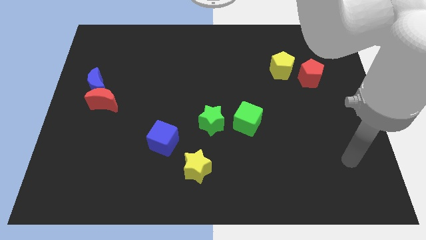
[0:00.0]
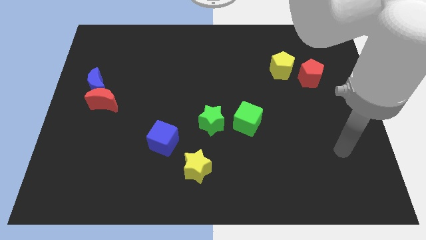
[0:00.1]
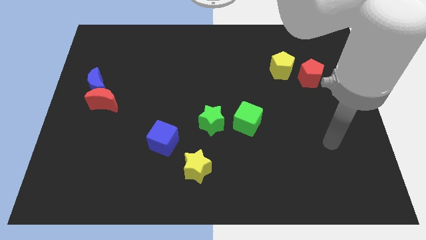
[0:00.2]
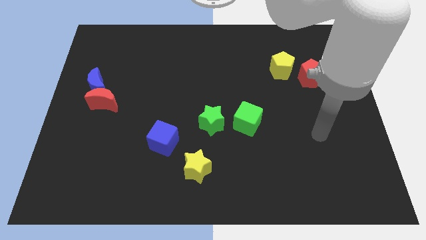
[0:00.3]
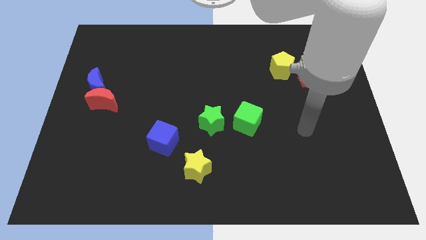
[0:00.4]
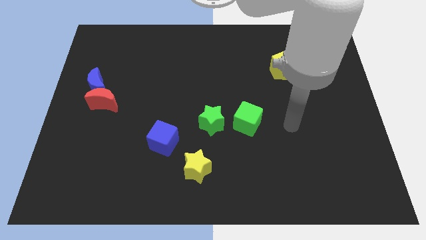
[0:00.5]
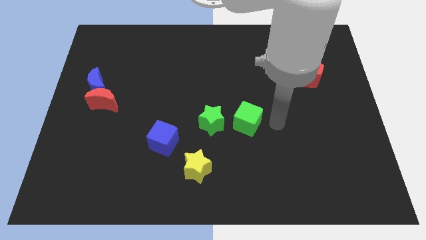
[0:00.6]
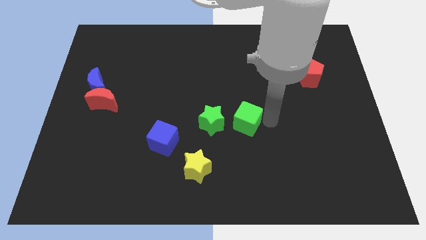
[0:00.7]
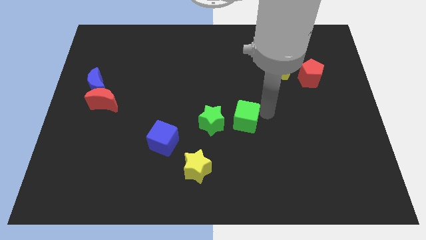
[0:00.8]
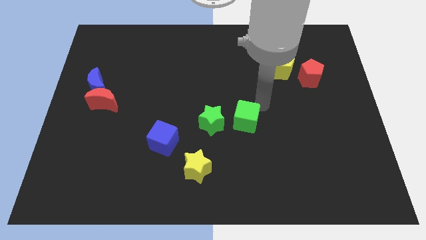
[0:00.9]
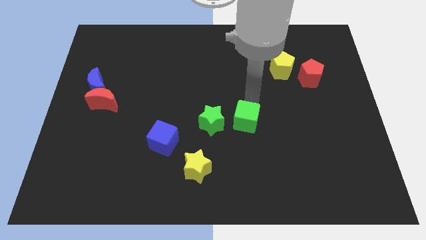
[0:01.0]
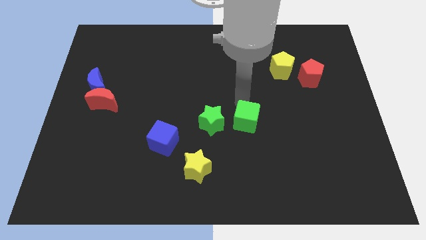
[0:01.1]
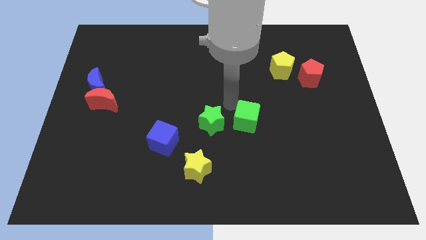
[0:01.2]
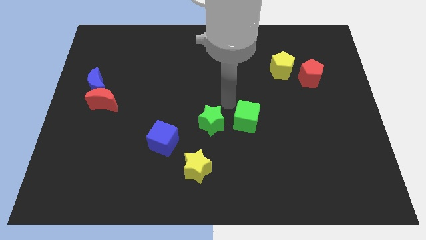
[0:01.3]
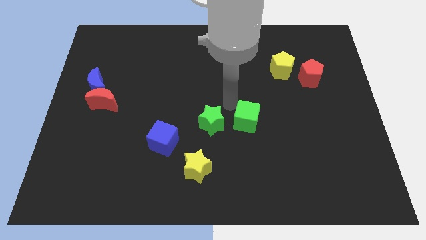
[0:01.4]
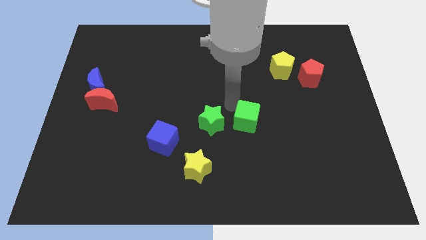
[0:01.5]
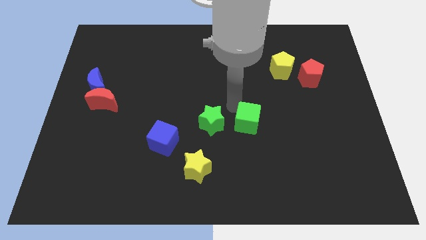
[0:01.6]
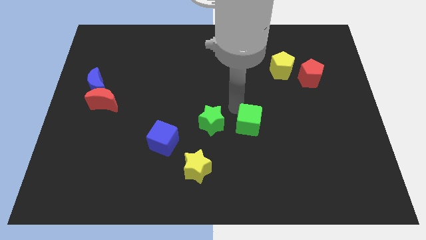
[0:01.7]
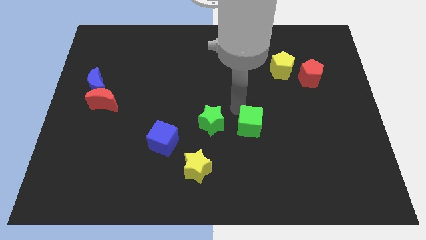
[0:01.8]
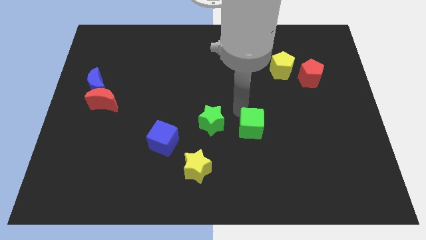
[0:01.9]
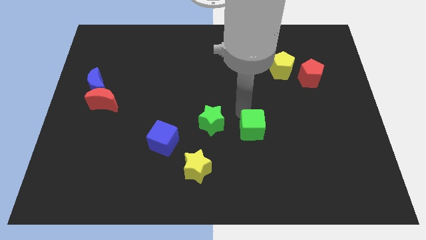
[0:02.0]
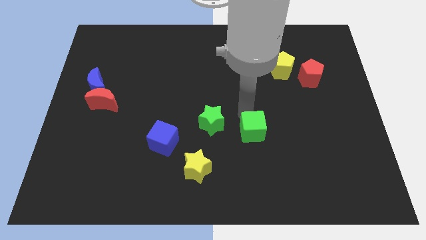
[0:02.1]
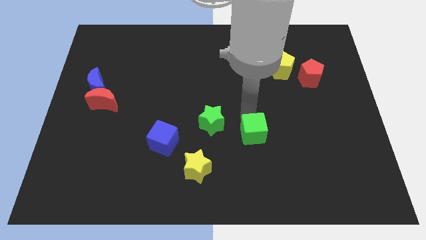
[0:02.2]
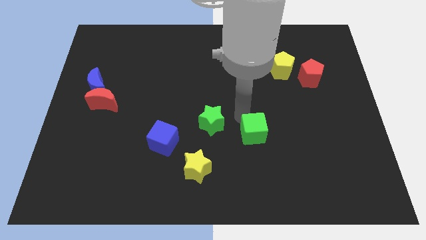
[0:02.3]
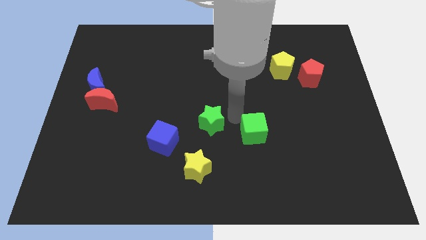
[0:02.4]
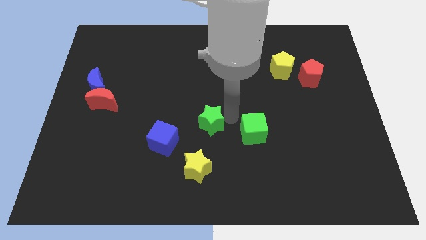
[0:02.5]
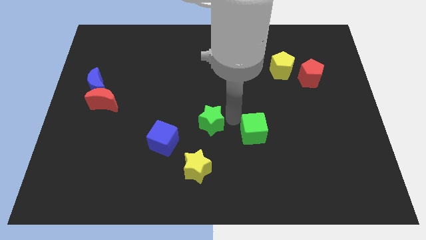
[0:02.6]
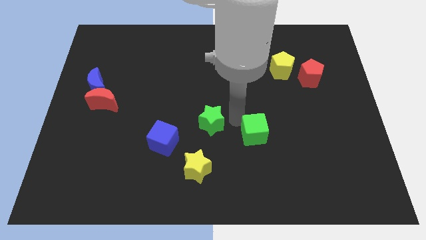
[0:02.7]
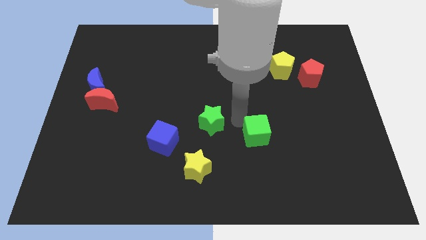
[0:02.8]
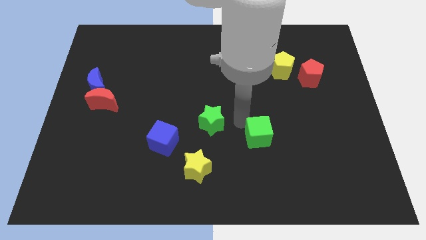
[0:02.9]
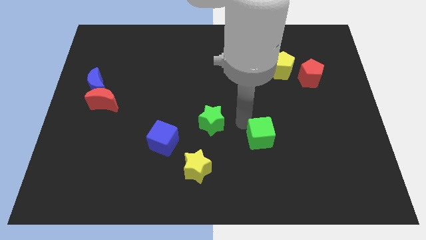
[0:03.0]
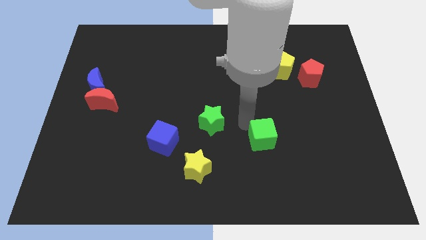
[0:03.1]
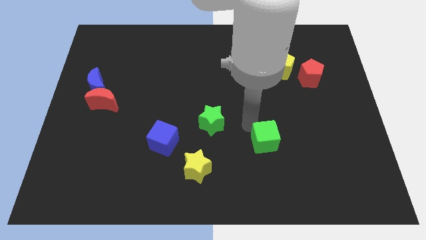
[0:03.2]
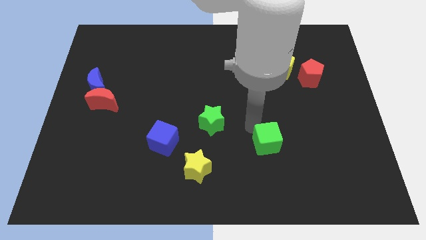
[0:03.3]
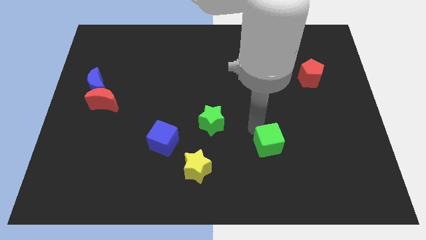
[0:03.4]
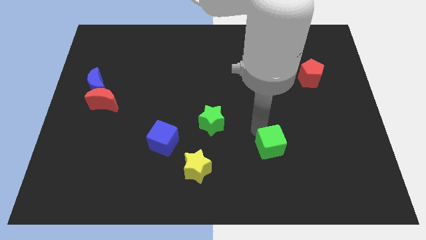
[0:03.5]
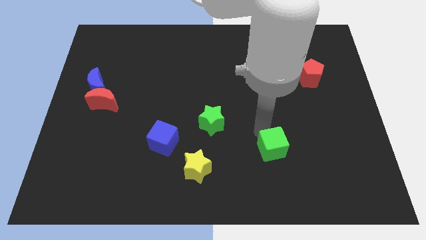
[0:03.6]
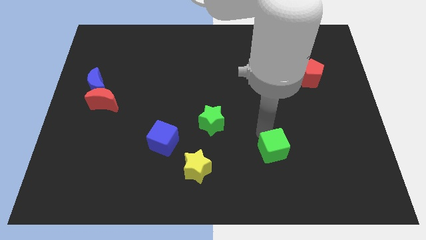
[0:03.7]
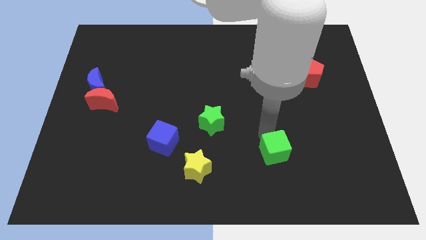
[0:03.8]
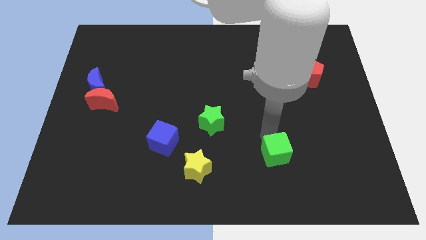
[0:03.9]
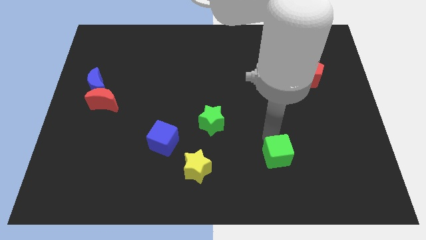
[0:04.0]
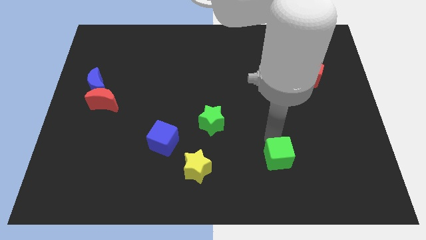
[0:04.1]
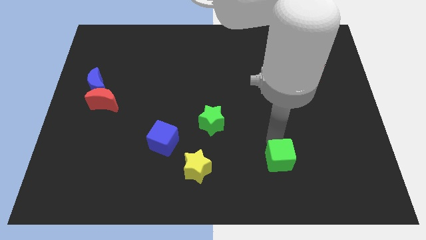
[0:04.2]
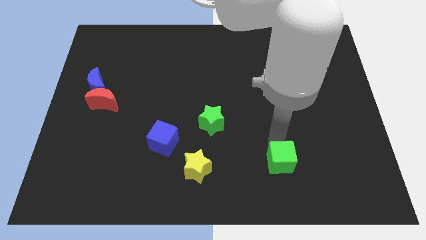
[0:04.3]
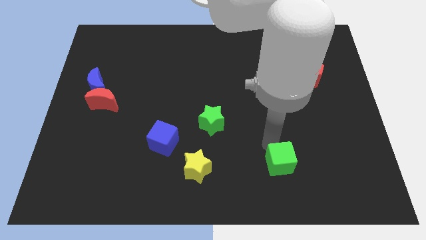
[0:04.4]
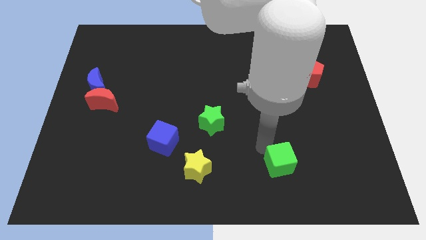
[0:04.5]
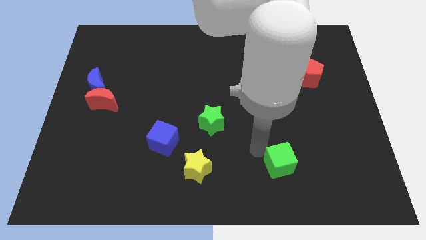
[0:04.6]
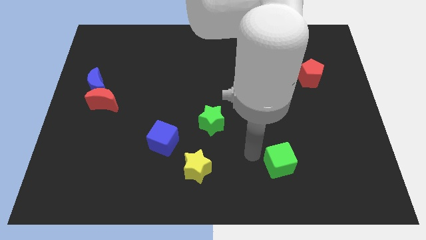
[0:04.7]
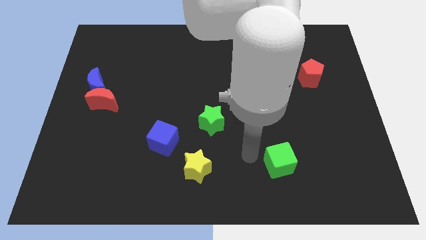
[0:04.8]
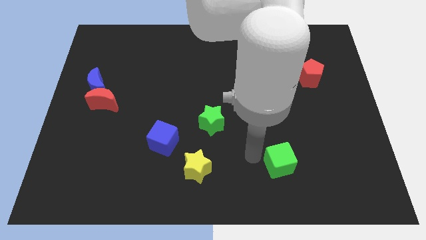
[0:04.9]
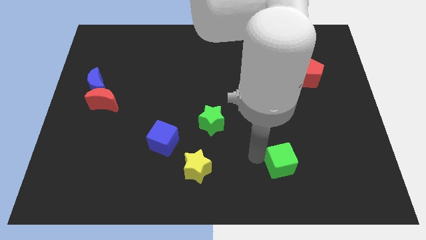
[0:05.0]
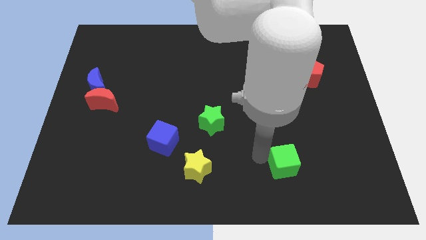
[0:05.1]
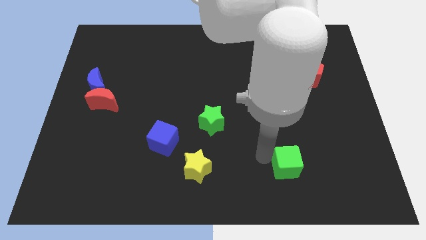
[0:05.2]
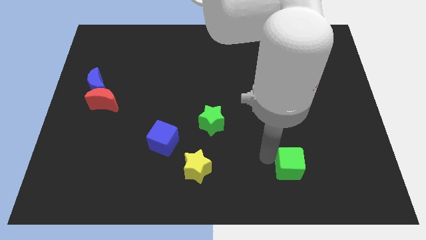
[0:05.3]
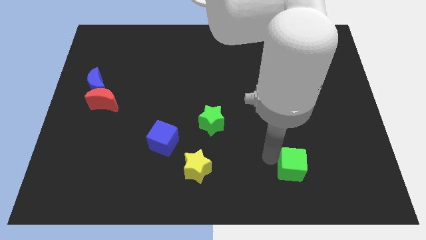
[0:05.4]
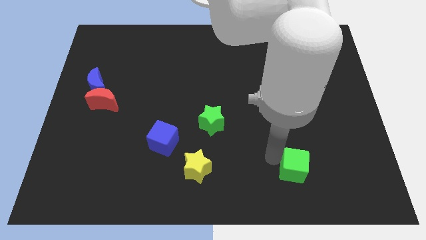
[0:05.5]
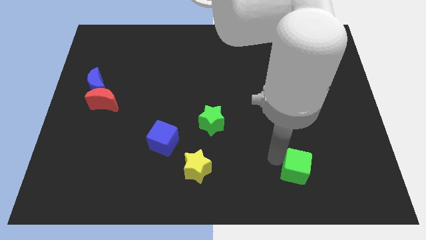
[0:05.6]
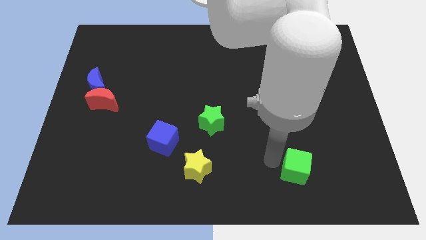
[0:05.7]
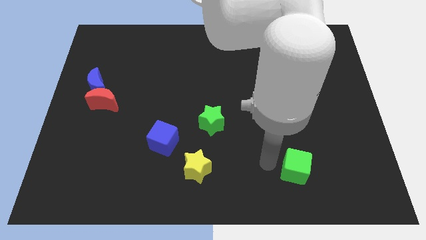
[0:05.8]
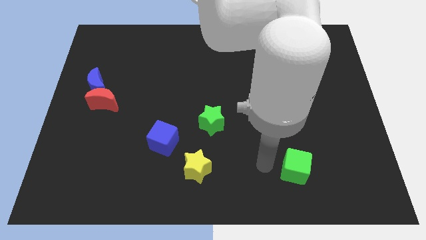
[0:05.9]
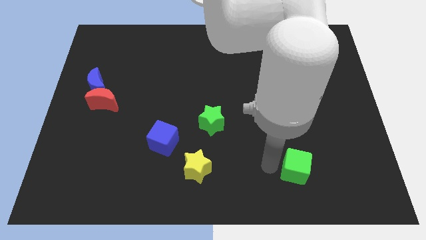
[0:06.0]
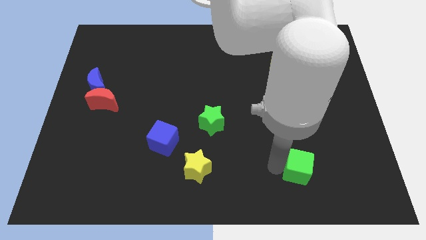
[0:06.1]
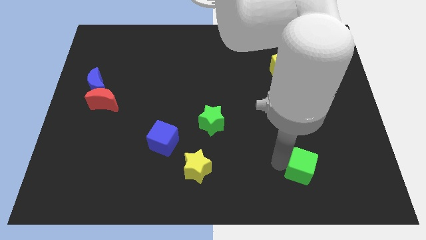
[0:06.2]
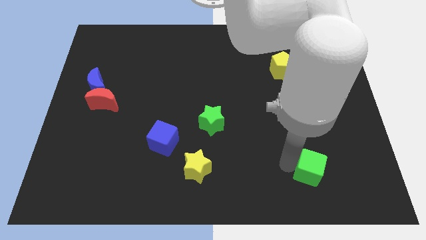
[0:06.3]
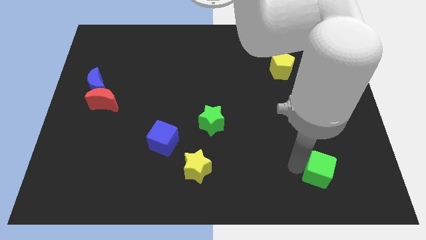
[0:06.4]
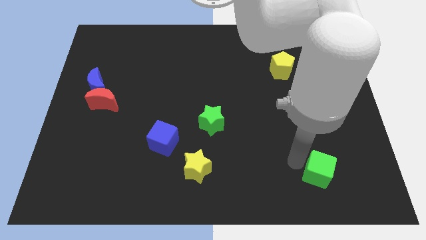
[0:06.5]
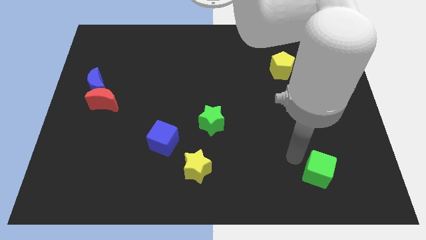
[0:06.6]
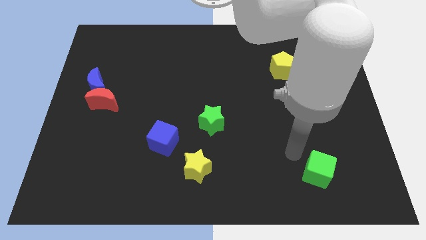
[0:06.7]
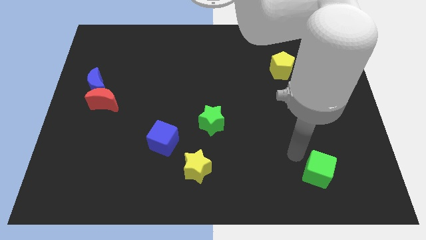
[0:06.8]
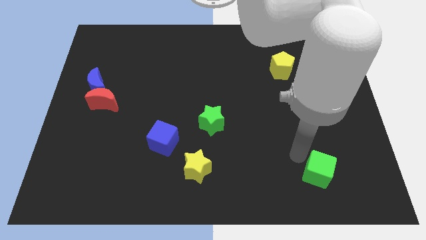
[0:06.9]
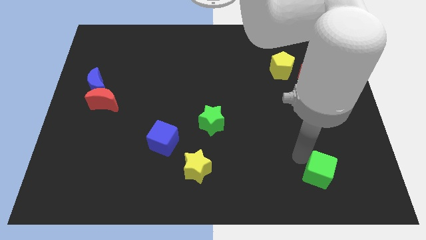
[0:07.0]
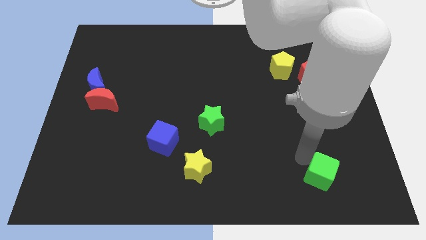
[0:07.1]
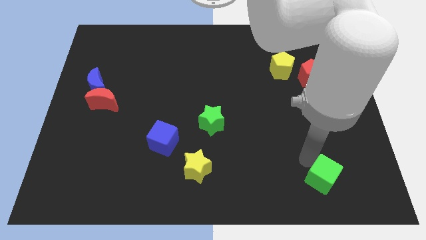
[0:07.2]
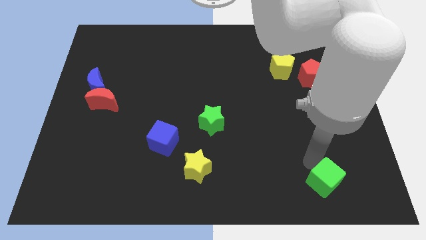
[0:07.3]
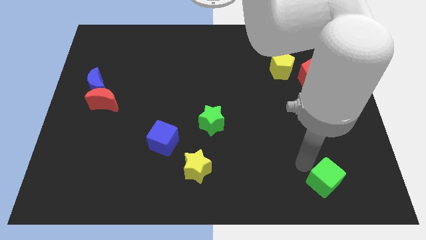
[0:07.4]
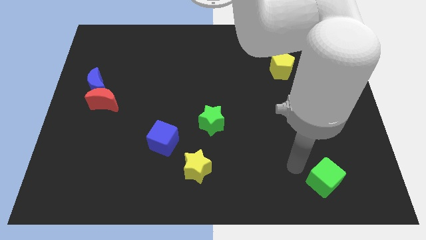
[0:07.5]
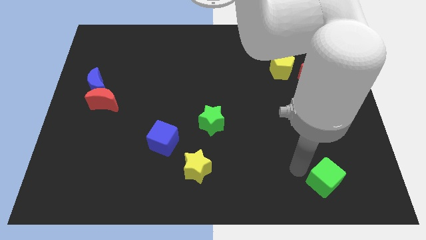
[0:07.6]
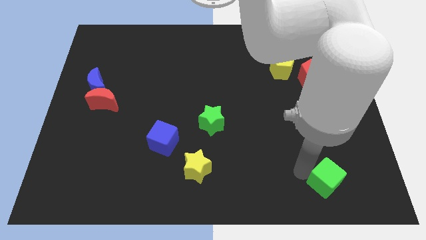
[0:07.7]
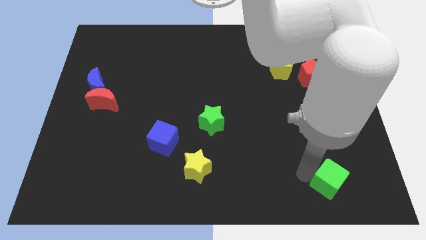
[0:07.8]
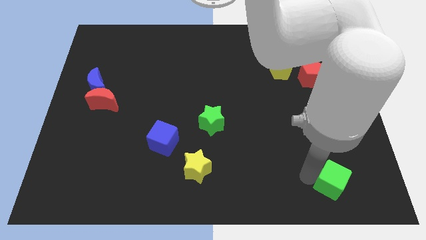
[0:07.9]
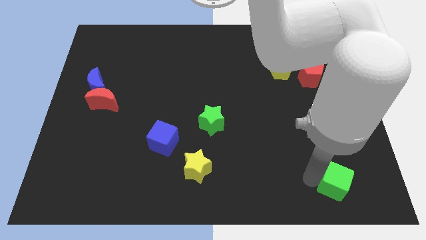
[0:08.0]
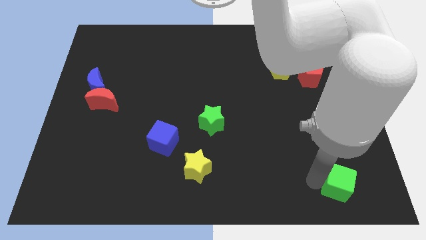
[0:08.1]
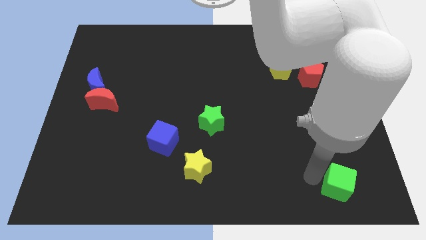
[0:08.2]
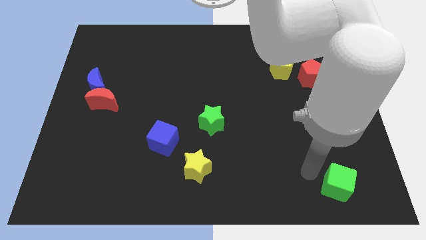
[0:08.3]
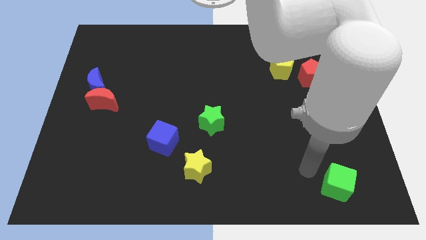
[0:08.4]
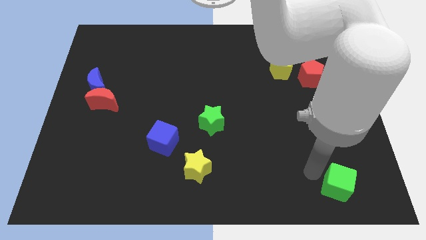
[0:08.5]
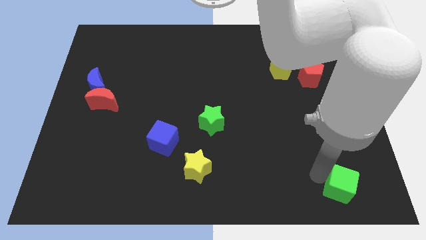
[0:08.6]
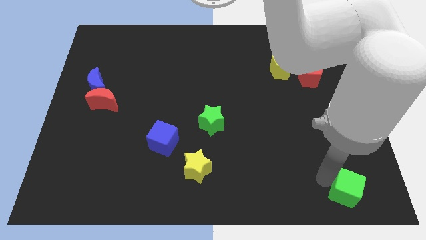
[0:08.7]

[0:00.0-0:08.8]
slide the green cube to the bottom right of the board
